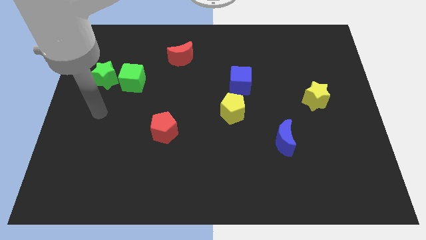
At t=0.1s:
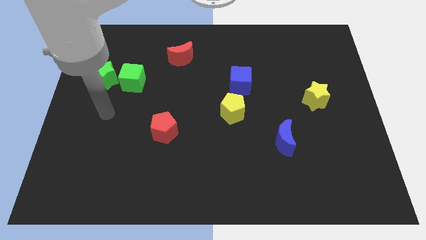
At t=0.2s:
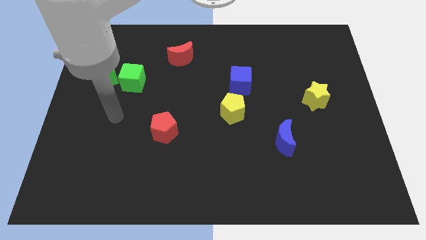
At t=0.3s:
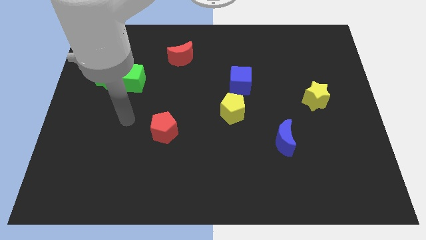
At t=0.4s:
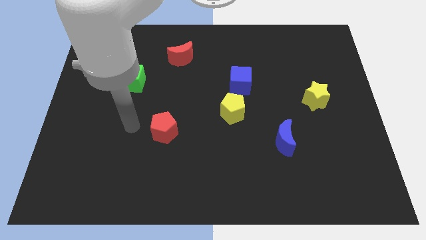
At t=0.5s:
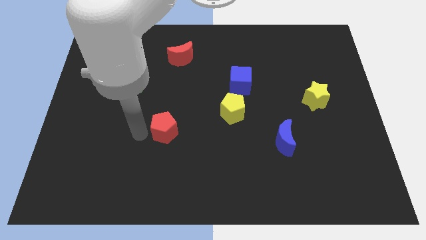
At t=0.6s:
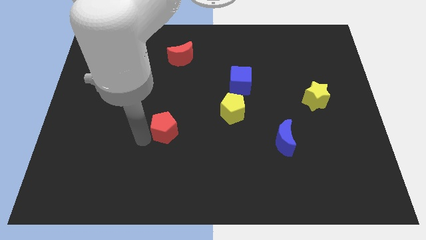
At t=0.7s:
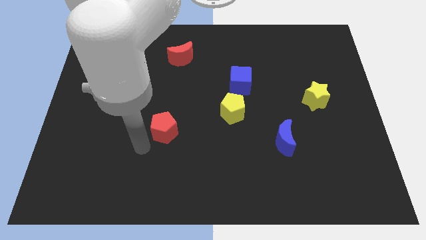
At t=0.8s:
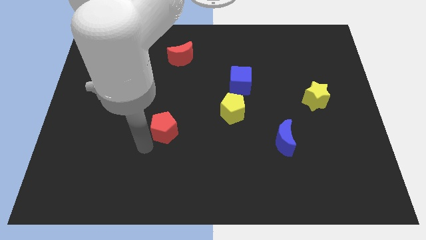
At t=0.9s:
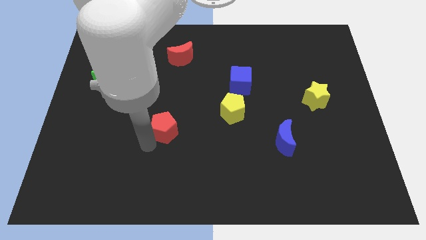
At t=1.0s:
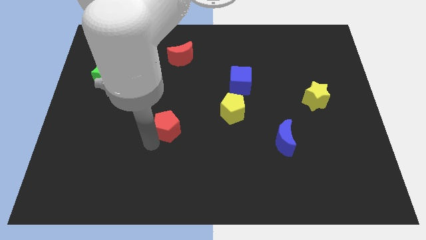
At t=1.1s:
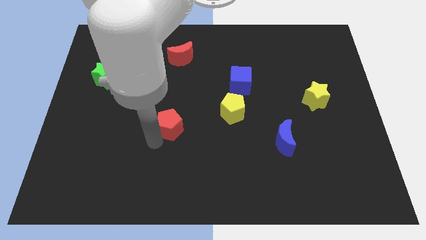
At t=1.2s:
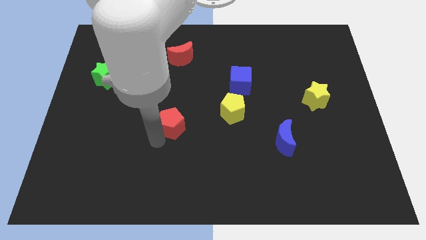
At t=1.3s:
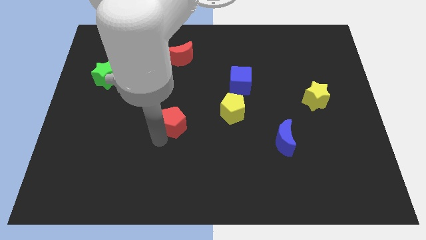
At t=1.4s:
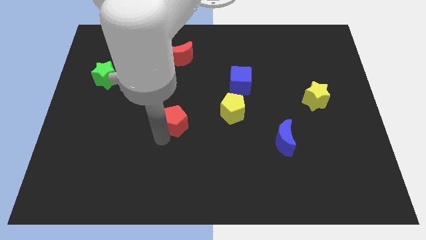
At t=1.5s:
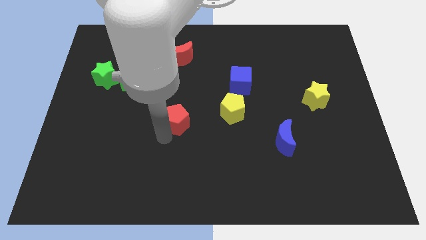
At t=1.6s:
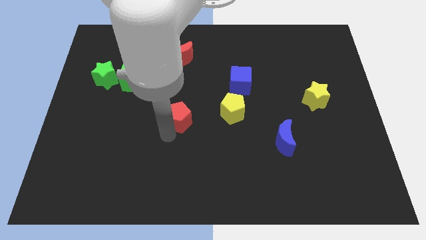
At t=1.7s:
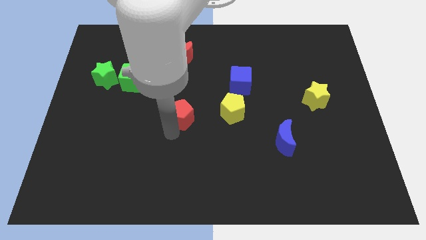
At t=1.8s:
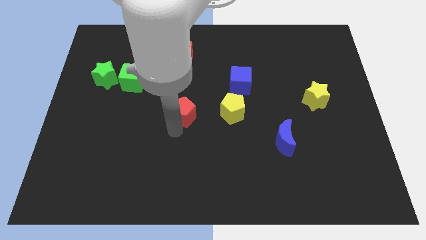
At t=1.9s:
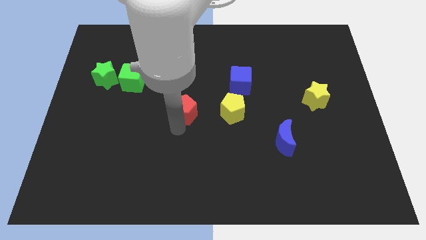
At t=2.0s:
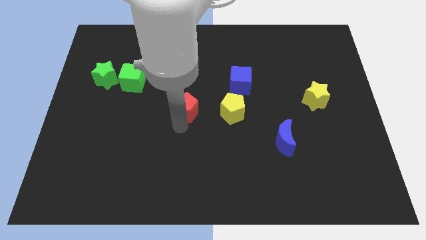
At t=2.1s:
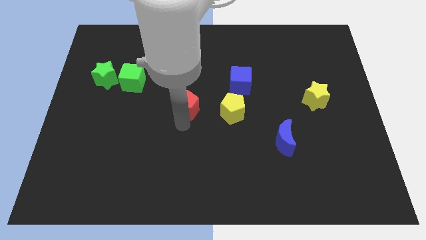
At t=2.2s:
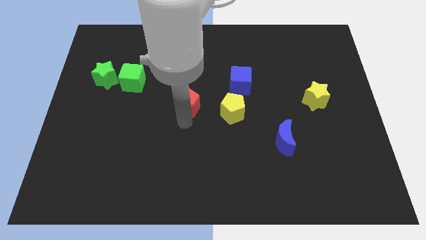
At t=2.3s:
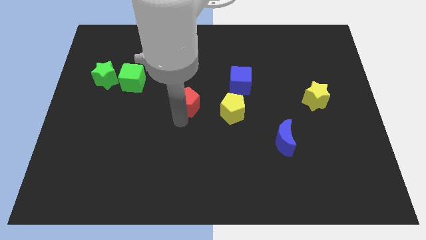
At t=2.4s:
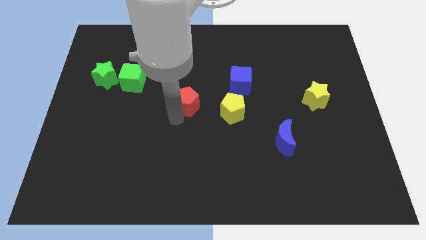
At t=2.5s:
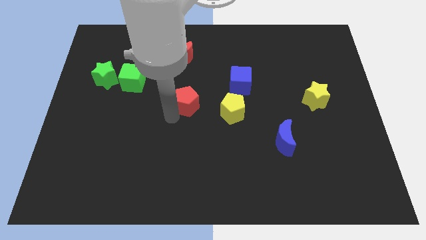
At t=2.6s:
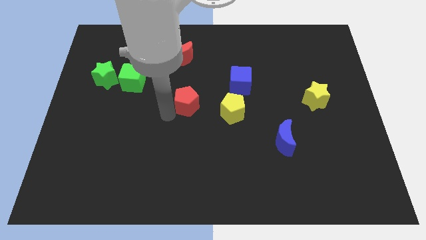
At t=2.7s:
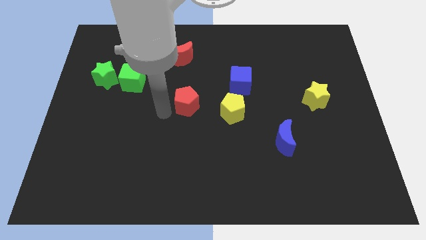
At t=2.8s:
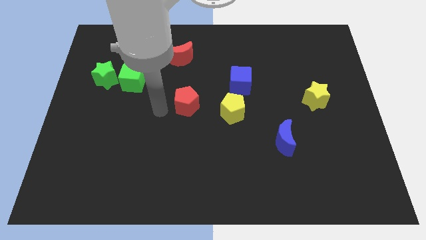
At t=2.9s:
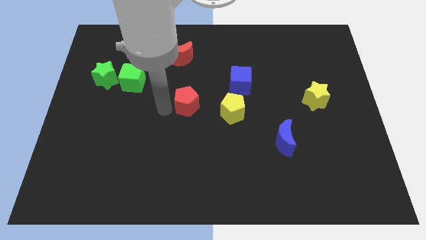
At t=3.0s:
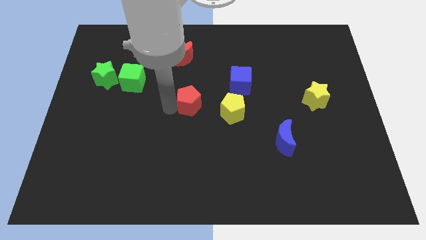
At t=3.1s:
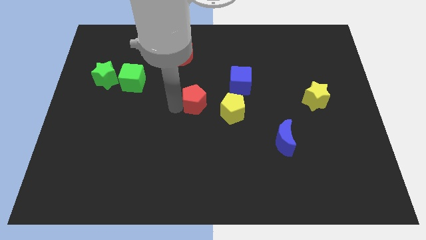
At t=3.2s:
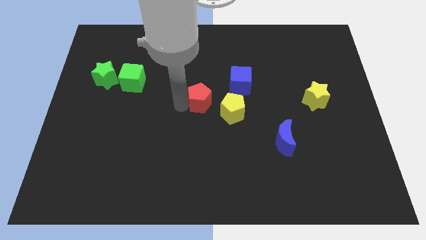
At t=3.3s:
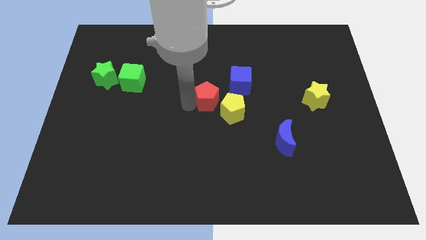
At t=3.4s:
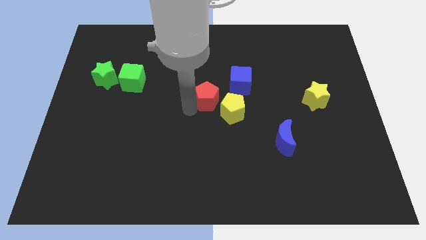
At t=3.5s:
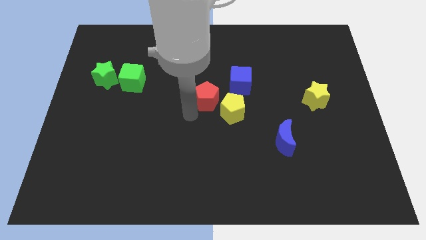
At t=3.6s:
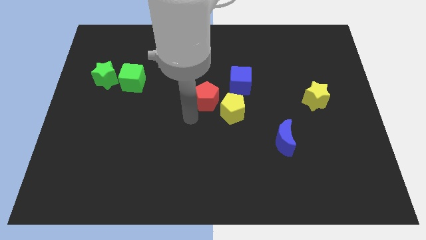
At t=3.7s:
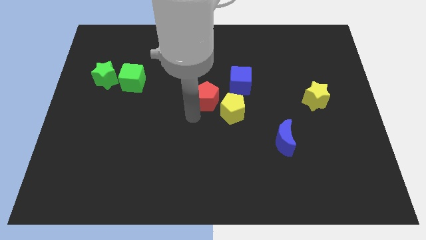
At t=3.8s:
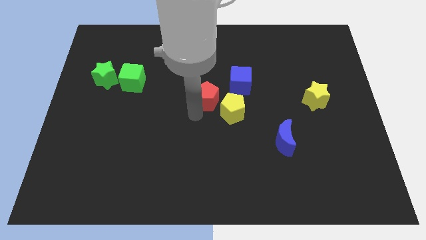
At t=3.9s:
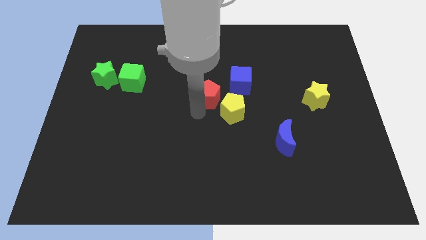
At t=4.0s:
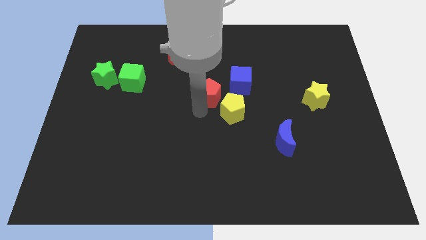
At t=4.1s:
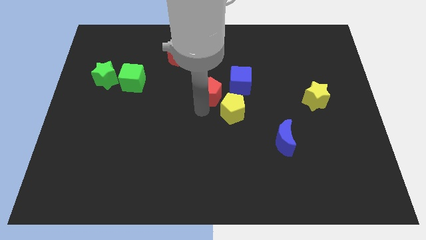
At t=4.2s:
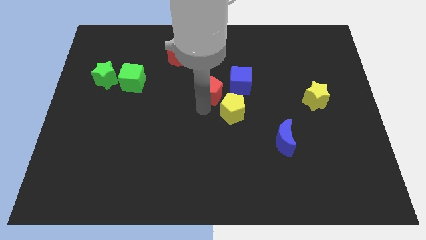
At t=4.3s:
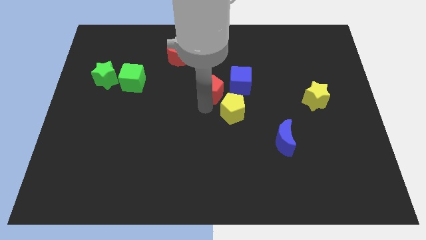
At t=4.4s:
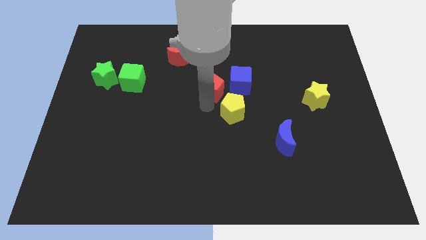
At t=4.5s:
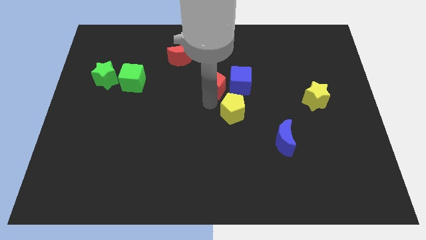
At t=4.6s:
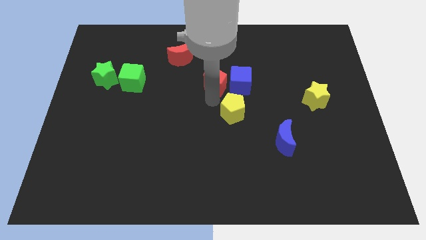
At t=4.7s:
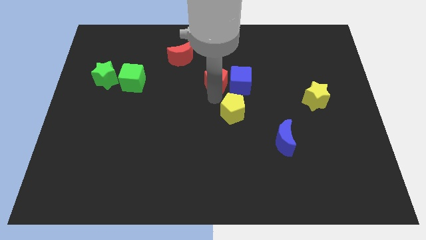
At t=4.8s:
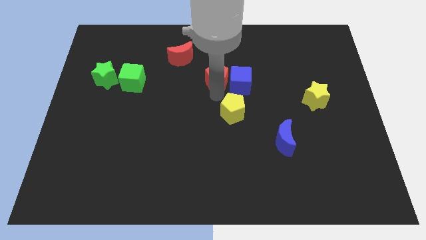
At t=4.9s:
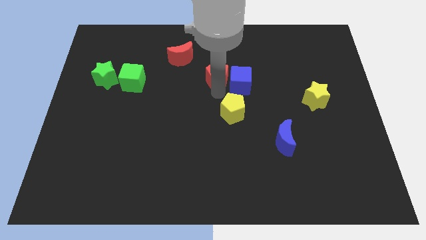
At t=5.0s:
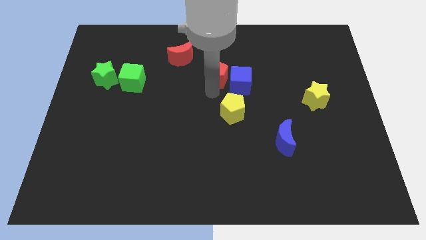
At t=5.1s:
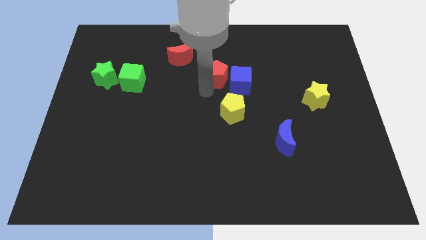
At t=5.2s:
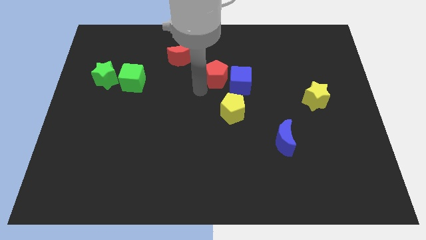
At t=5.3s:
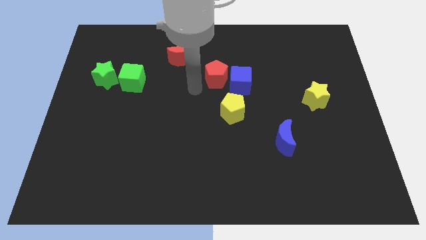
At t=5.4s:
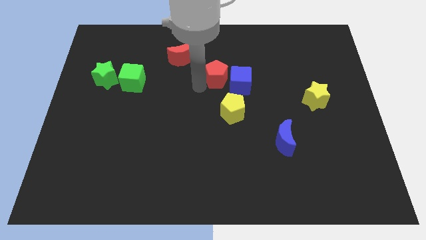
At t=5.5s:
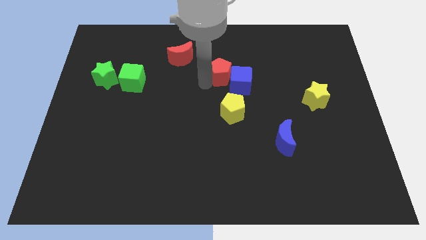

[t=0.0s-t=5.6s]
move the red pentagon diagonally upwards and right

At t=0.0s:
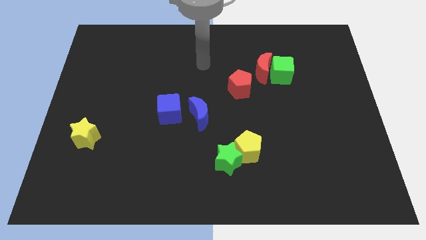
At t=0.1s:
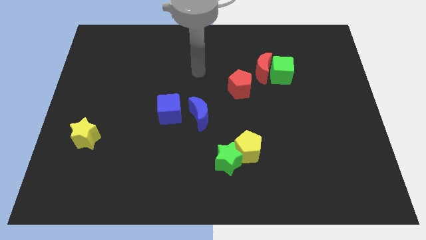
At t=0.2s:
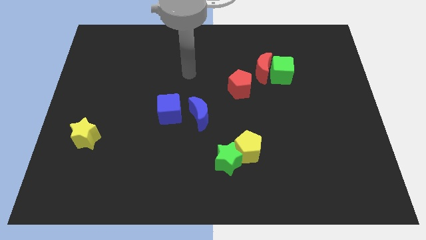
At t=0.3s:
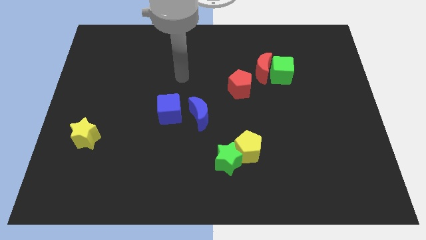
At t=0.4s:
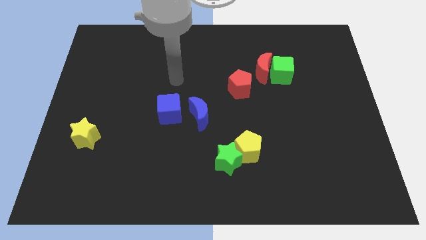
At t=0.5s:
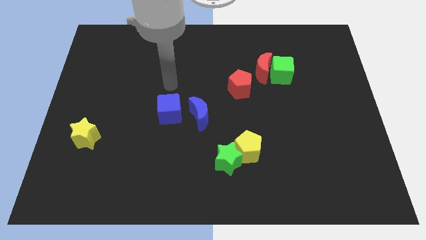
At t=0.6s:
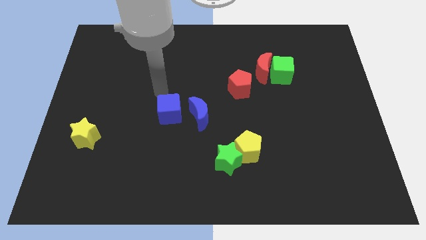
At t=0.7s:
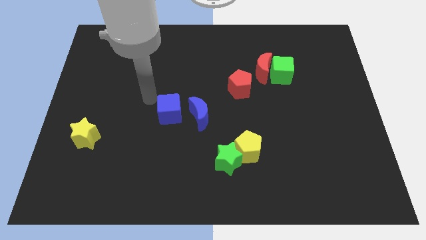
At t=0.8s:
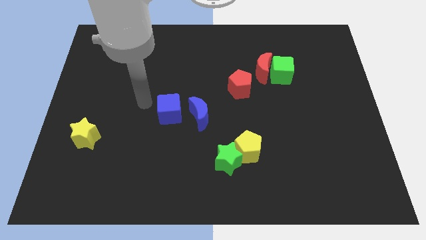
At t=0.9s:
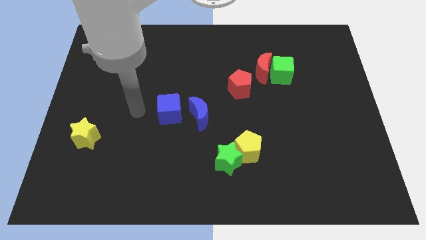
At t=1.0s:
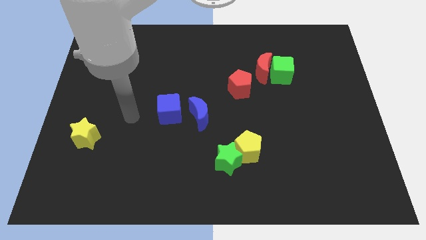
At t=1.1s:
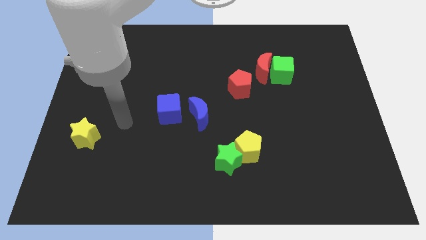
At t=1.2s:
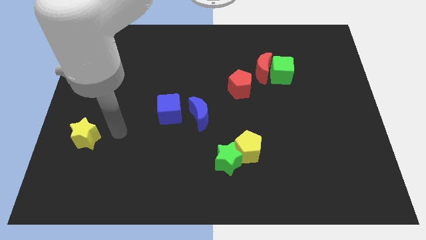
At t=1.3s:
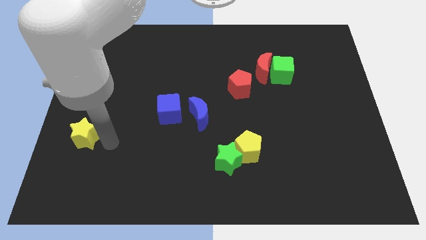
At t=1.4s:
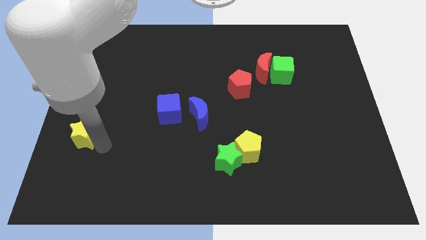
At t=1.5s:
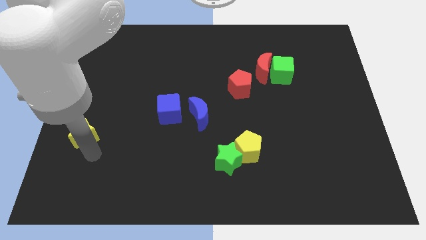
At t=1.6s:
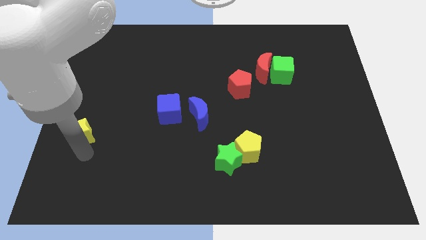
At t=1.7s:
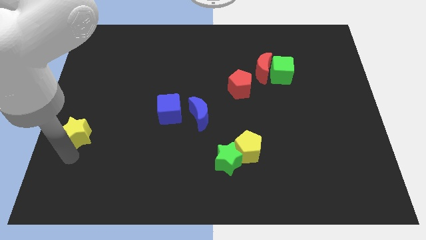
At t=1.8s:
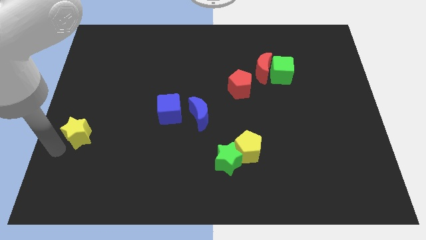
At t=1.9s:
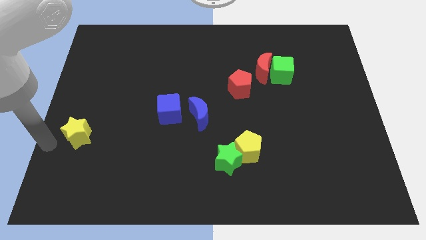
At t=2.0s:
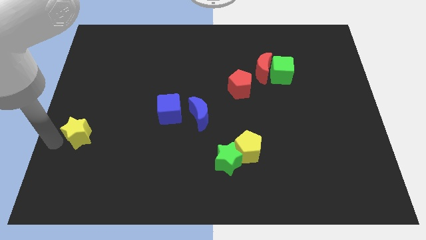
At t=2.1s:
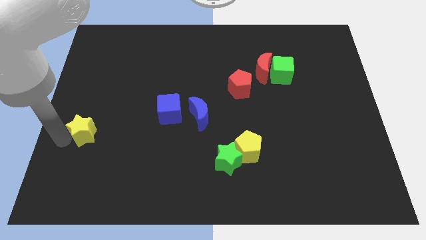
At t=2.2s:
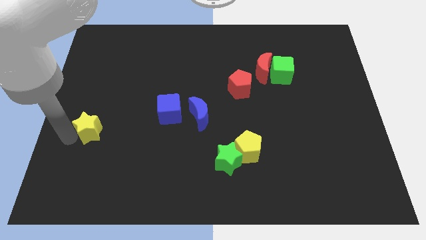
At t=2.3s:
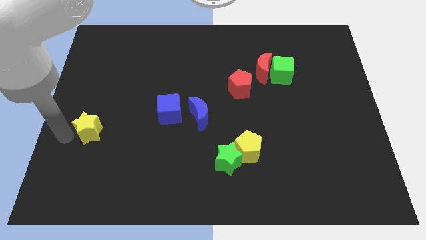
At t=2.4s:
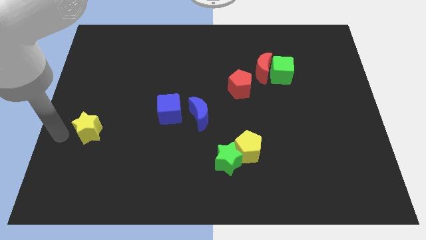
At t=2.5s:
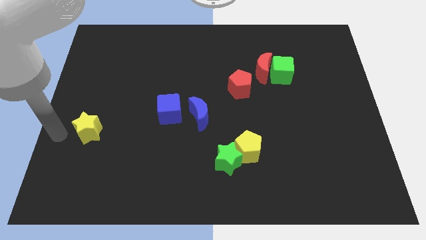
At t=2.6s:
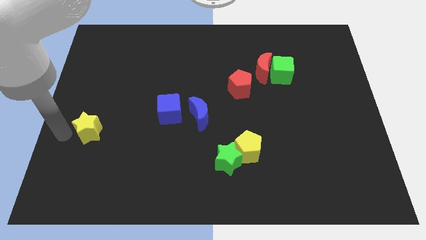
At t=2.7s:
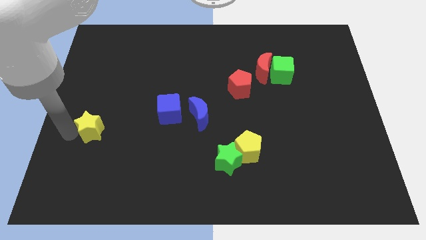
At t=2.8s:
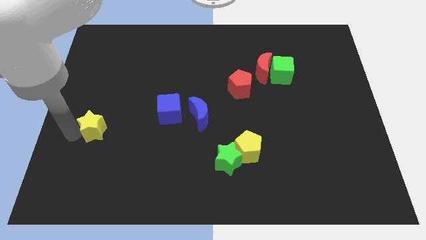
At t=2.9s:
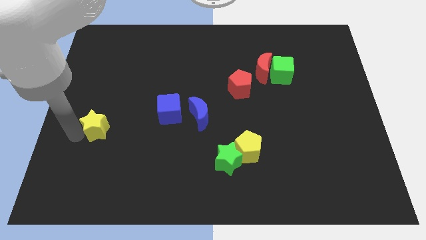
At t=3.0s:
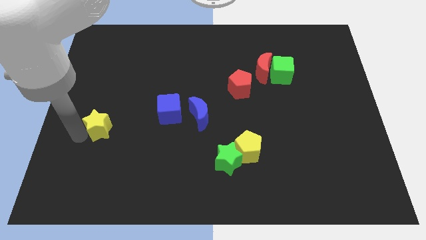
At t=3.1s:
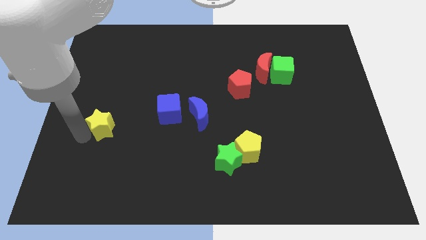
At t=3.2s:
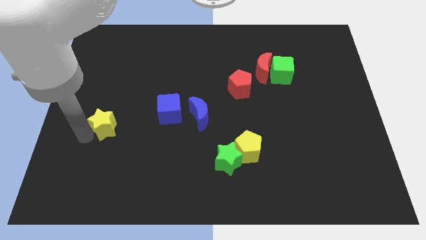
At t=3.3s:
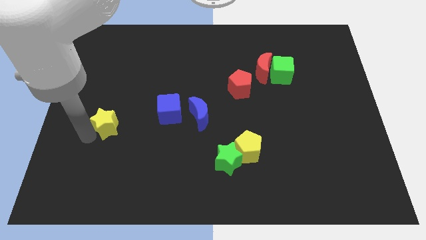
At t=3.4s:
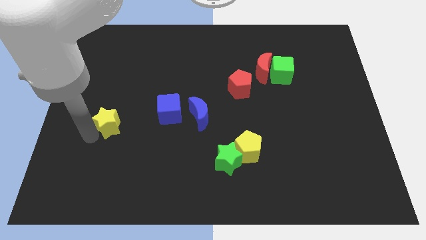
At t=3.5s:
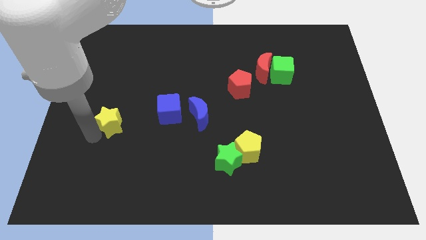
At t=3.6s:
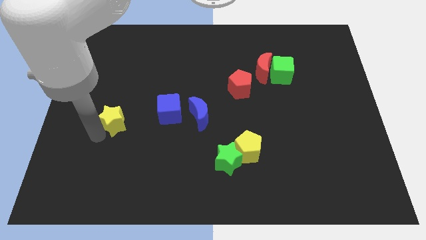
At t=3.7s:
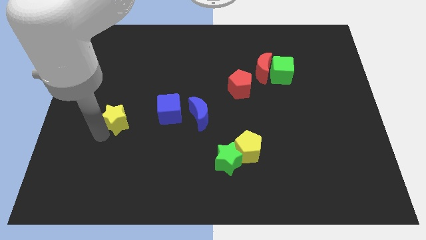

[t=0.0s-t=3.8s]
move the yellow star somewhat upwards and right
